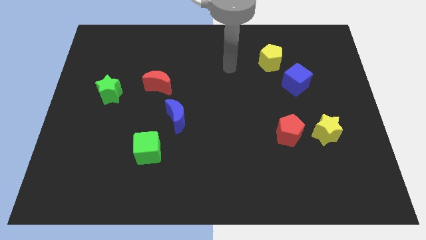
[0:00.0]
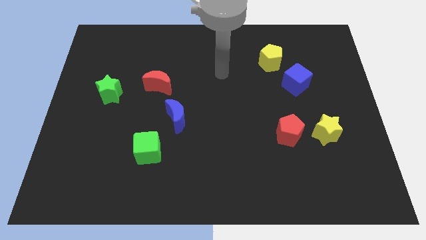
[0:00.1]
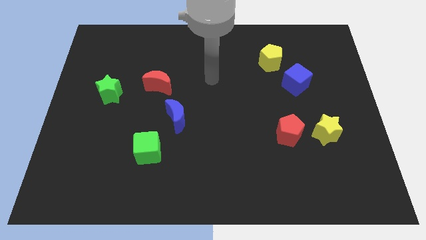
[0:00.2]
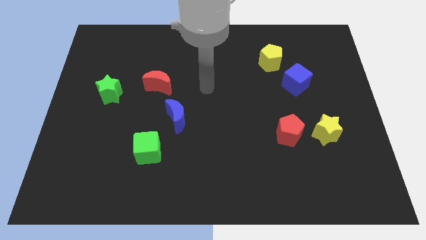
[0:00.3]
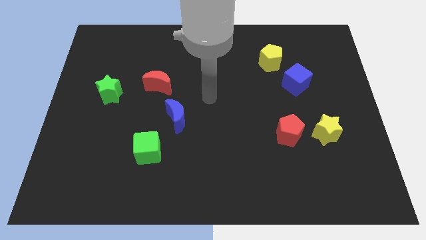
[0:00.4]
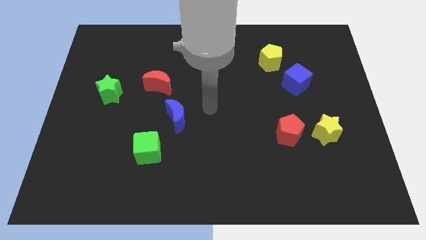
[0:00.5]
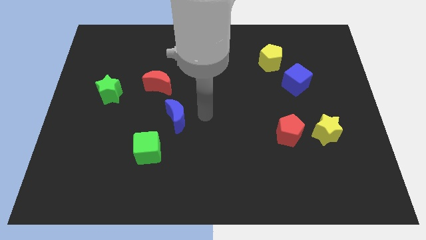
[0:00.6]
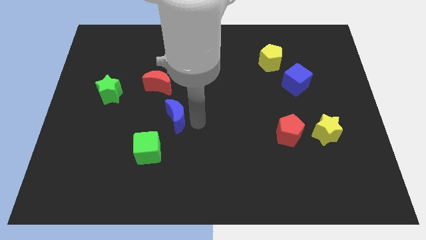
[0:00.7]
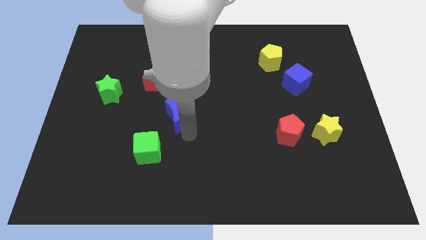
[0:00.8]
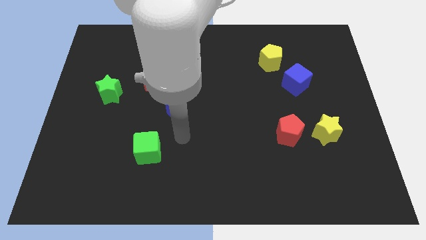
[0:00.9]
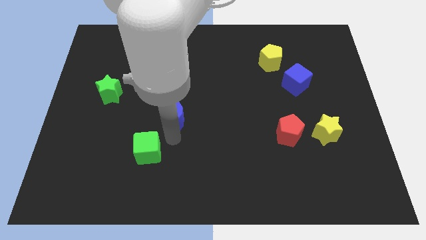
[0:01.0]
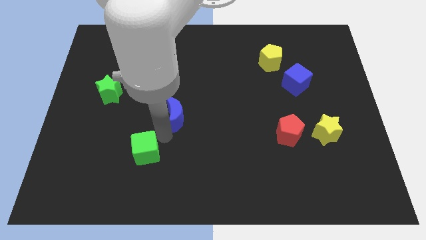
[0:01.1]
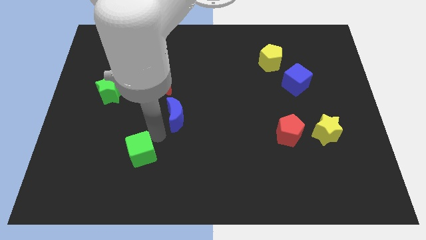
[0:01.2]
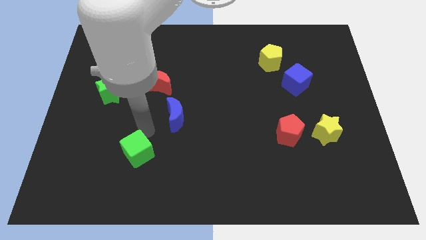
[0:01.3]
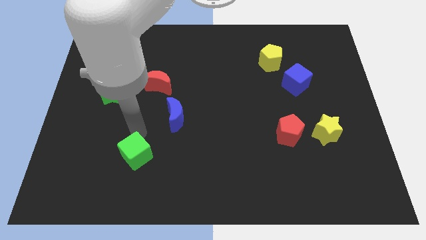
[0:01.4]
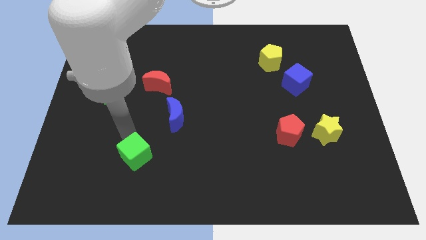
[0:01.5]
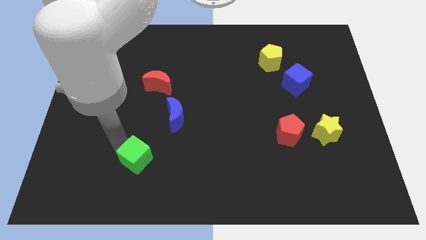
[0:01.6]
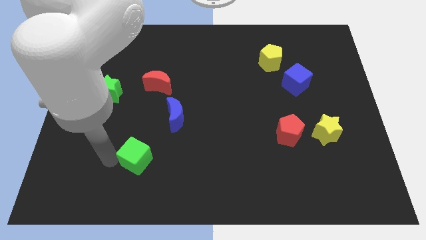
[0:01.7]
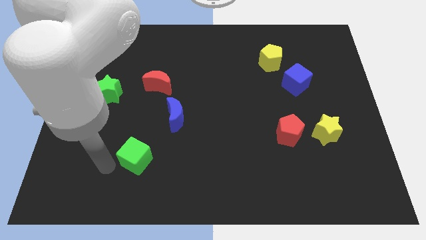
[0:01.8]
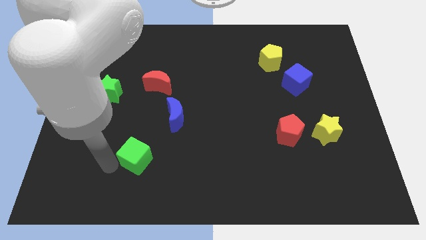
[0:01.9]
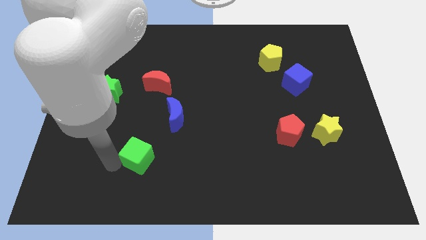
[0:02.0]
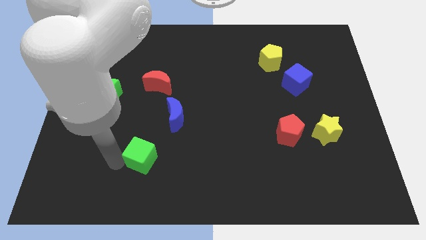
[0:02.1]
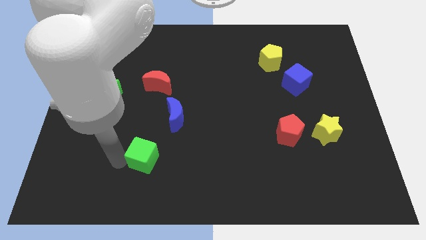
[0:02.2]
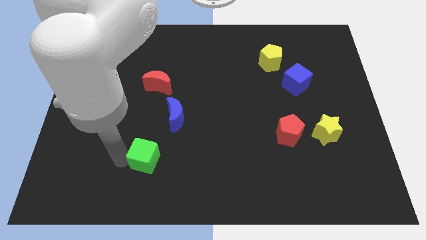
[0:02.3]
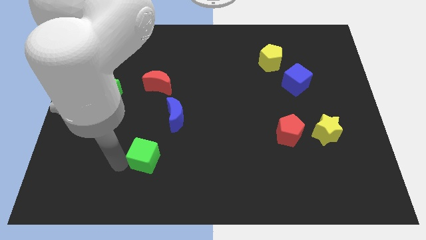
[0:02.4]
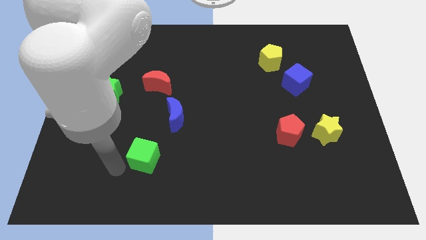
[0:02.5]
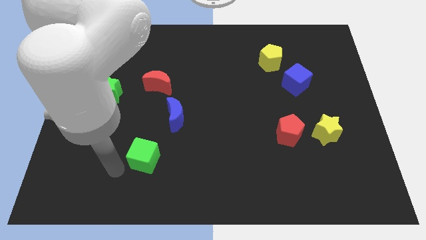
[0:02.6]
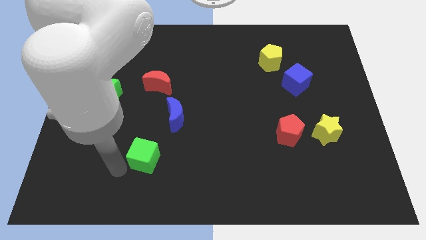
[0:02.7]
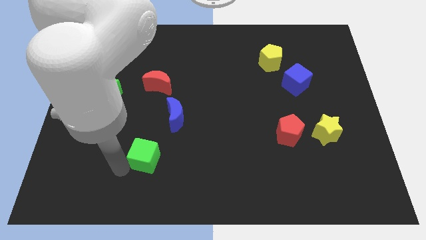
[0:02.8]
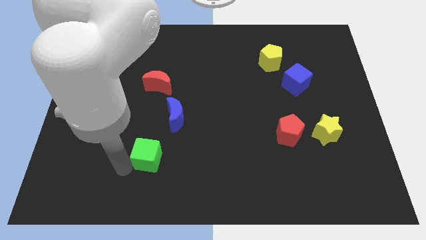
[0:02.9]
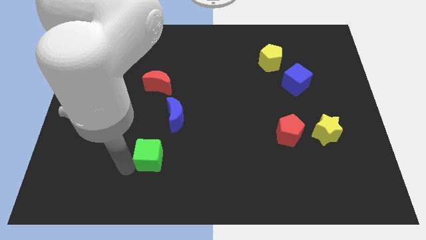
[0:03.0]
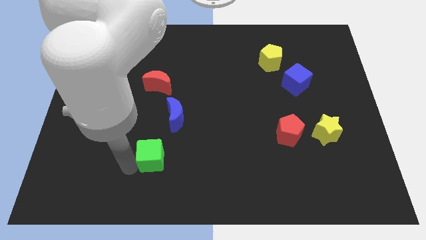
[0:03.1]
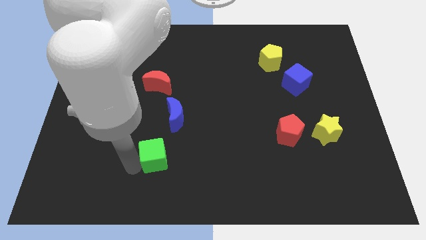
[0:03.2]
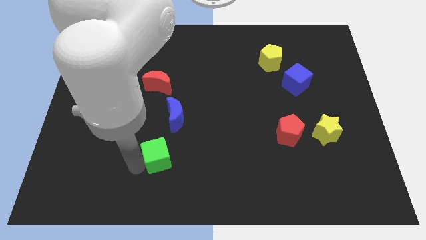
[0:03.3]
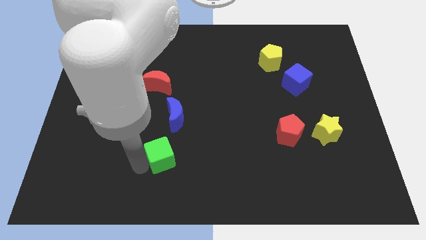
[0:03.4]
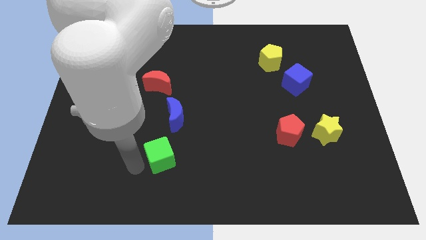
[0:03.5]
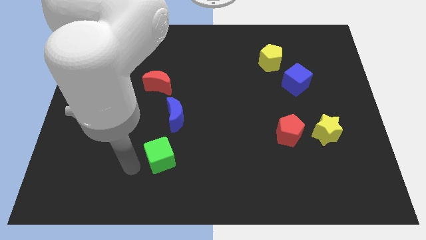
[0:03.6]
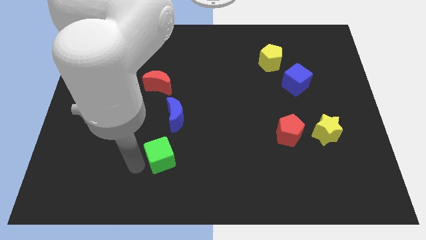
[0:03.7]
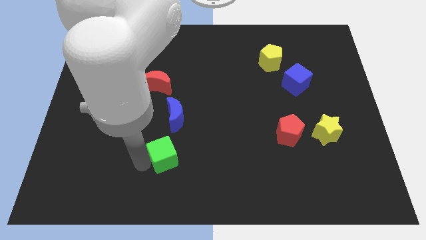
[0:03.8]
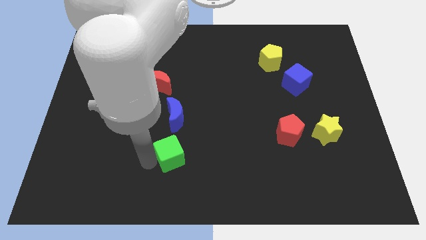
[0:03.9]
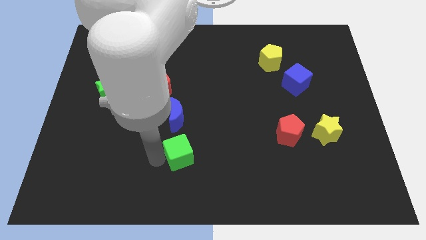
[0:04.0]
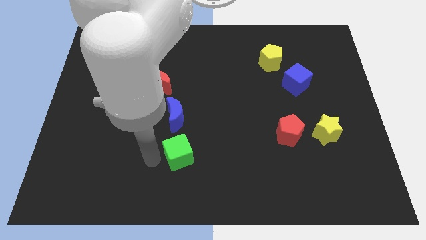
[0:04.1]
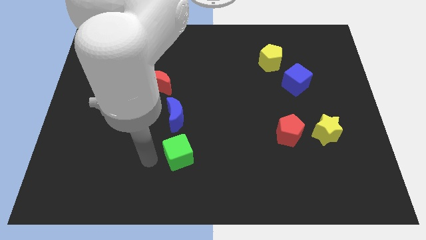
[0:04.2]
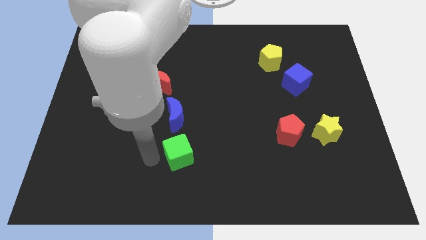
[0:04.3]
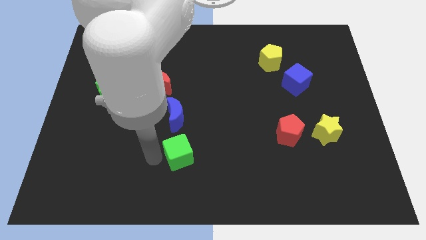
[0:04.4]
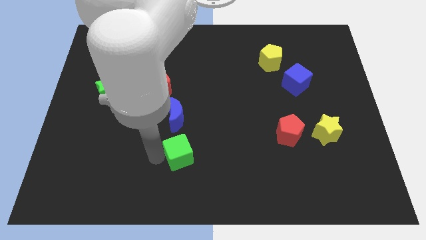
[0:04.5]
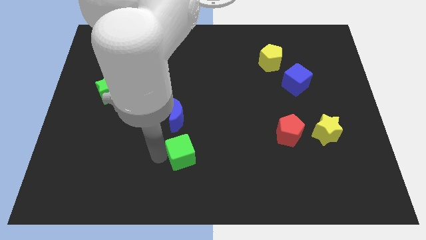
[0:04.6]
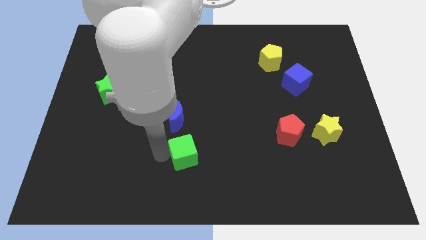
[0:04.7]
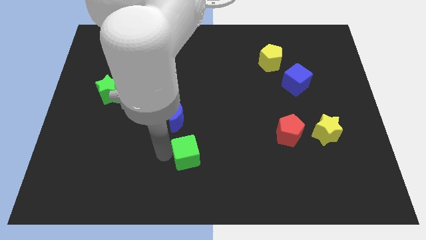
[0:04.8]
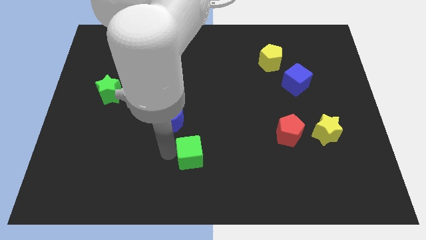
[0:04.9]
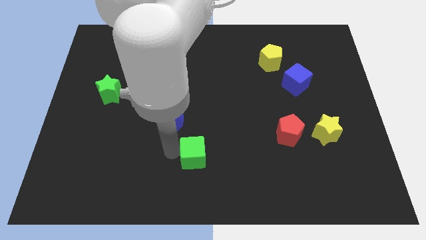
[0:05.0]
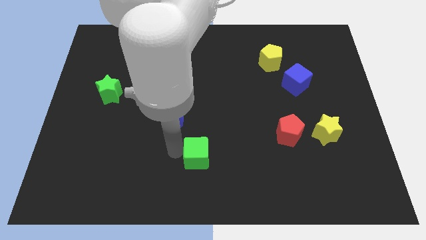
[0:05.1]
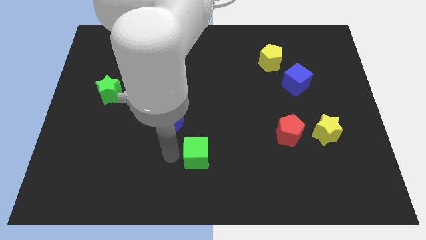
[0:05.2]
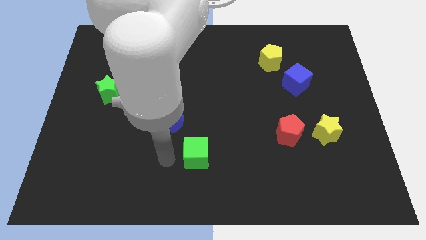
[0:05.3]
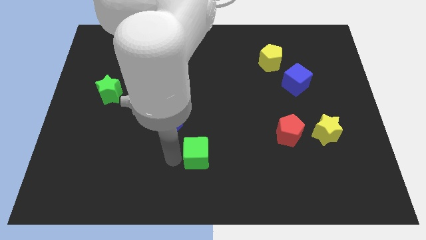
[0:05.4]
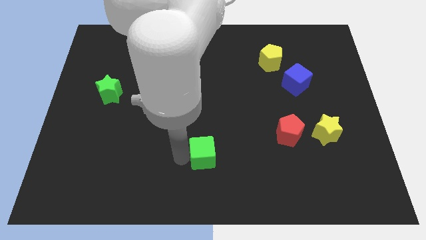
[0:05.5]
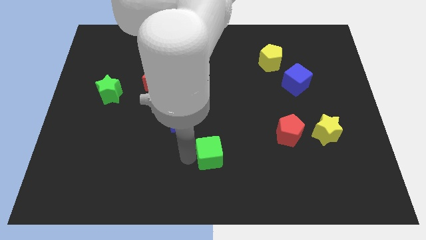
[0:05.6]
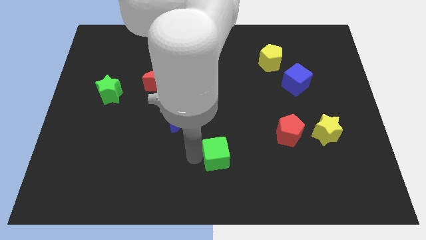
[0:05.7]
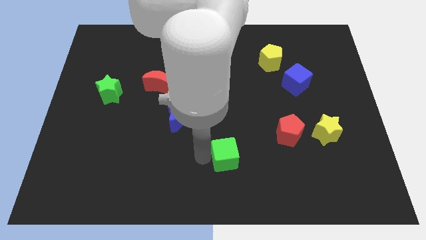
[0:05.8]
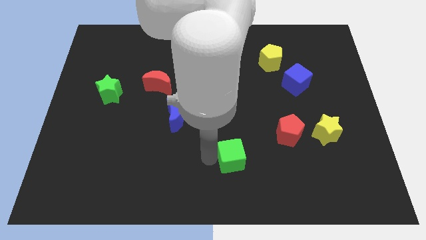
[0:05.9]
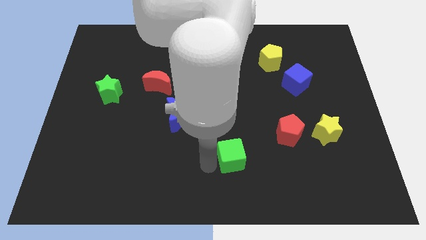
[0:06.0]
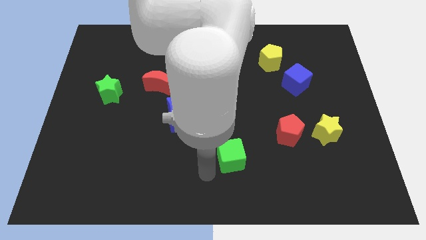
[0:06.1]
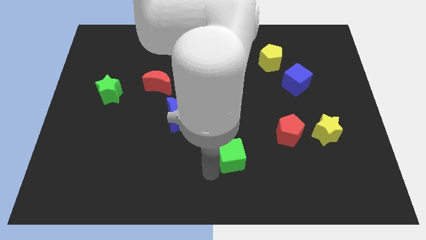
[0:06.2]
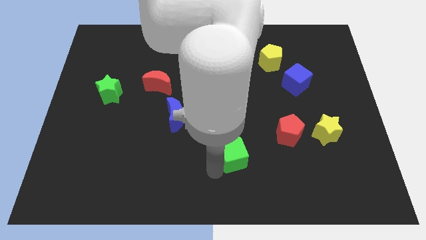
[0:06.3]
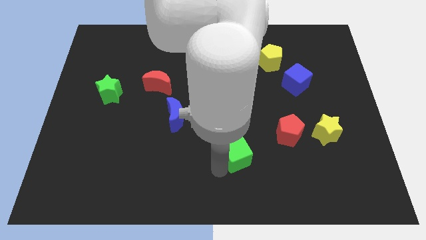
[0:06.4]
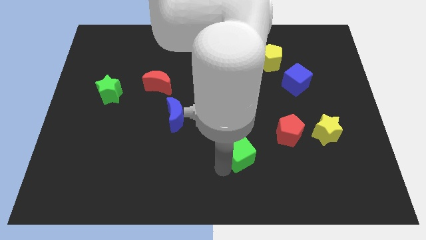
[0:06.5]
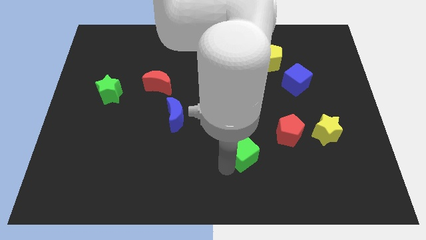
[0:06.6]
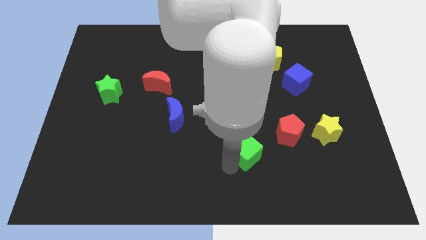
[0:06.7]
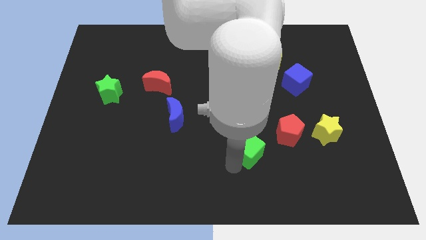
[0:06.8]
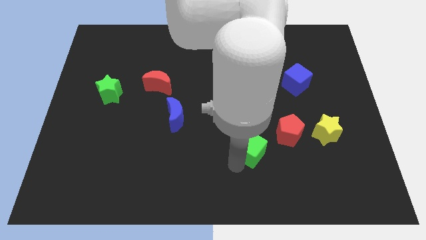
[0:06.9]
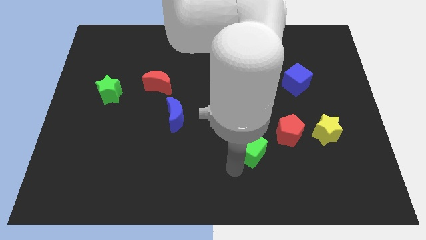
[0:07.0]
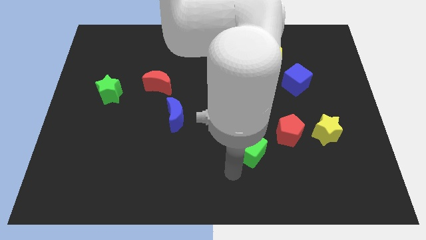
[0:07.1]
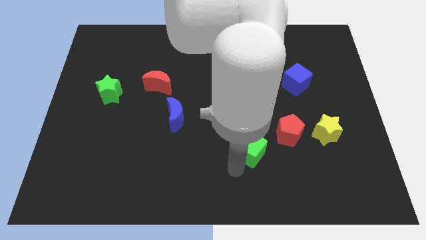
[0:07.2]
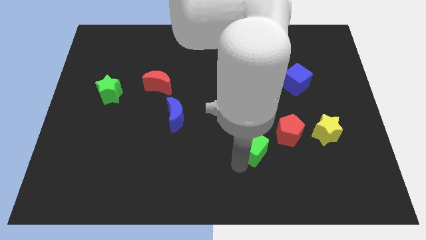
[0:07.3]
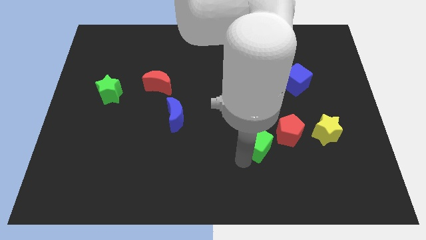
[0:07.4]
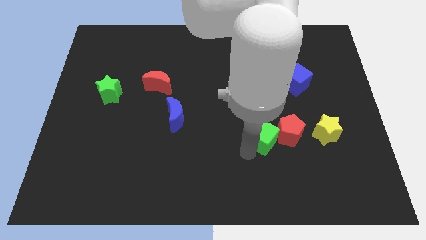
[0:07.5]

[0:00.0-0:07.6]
push the green cube to the red pentagon
